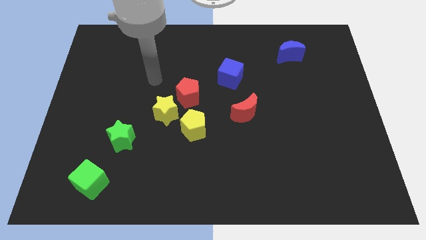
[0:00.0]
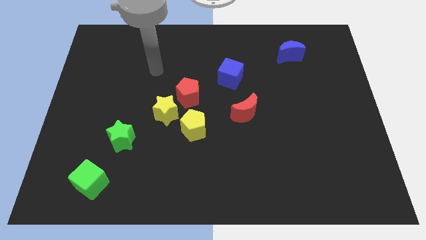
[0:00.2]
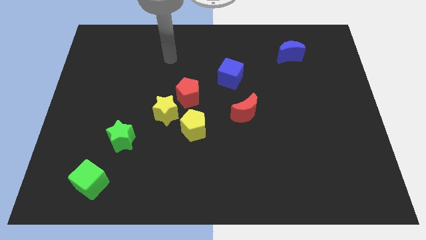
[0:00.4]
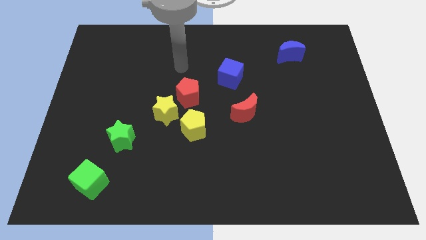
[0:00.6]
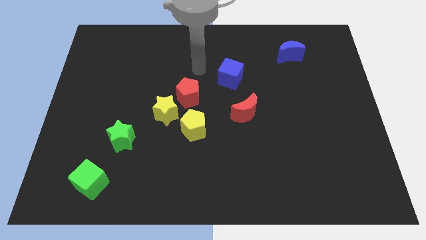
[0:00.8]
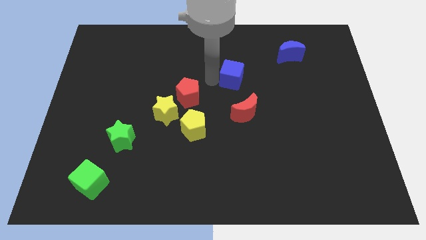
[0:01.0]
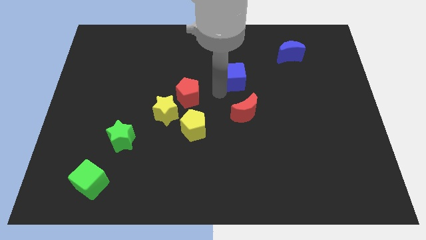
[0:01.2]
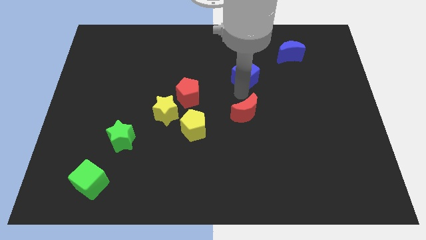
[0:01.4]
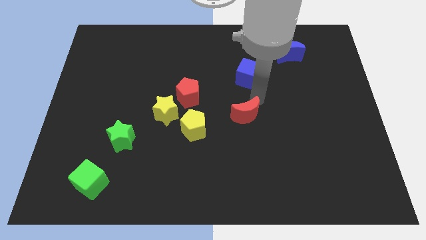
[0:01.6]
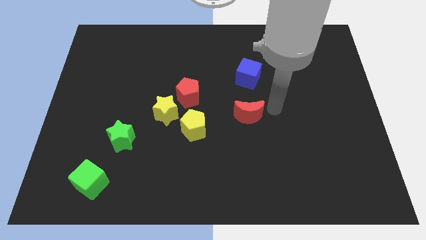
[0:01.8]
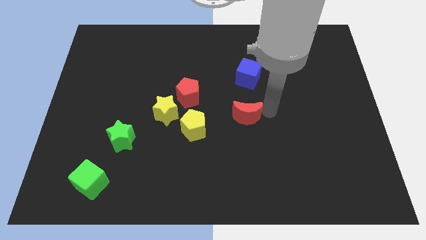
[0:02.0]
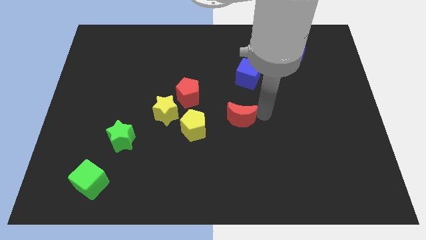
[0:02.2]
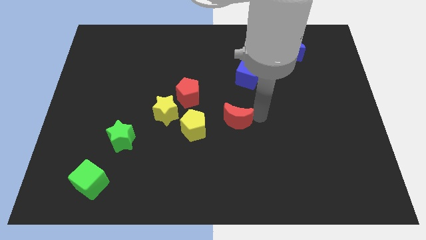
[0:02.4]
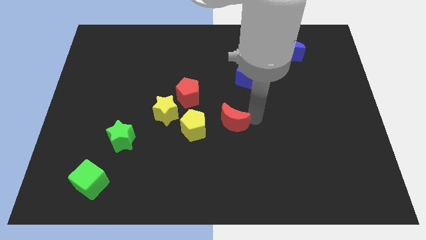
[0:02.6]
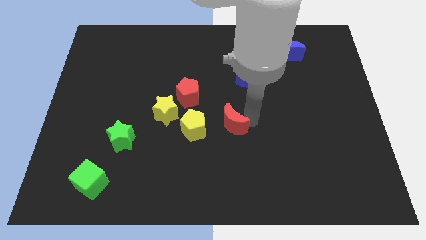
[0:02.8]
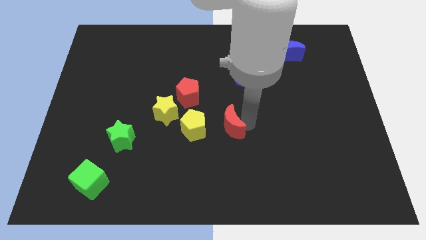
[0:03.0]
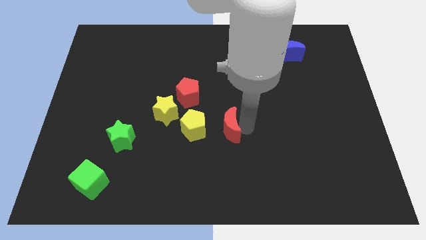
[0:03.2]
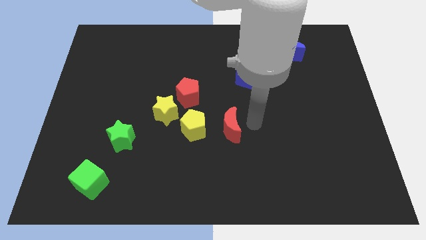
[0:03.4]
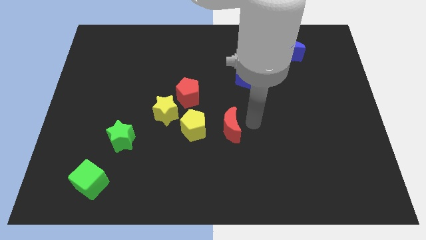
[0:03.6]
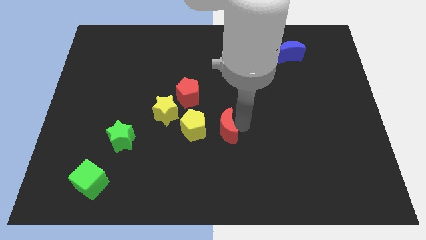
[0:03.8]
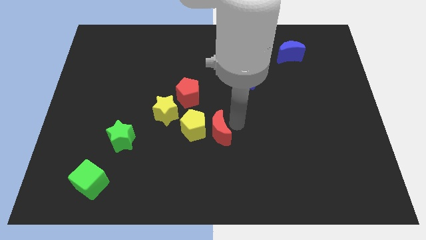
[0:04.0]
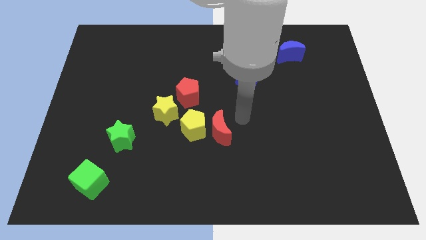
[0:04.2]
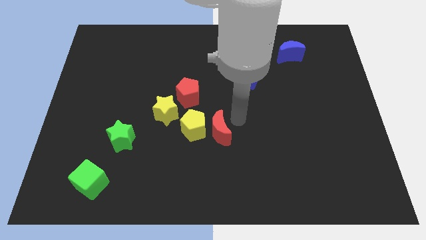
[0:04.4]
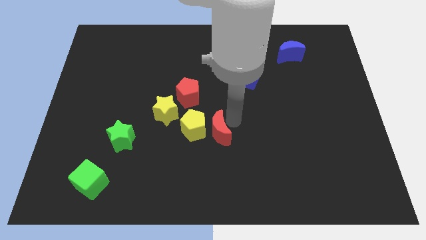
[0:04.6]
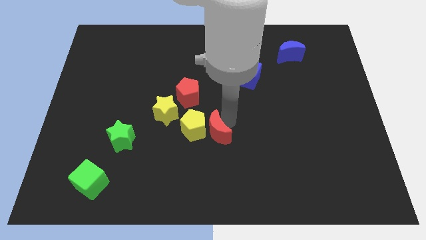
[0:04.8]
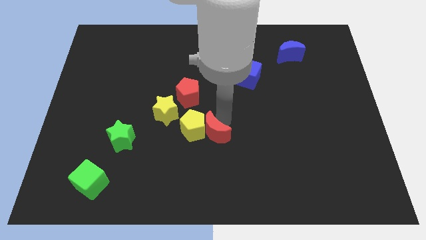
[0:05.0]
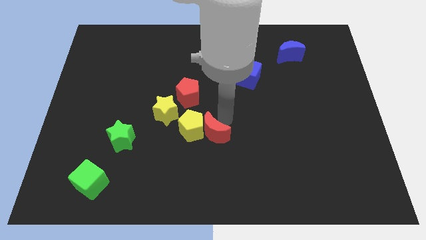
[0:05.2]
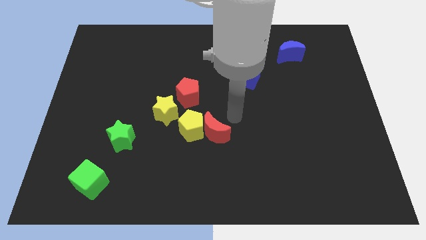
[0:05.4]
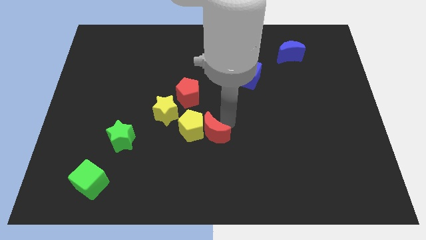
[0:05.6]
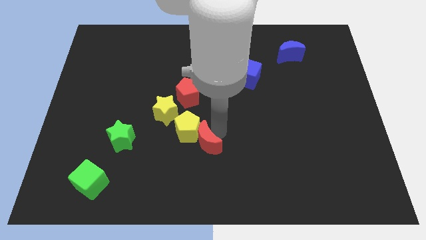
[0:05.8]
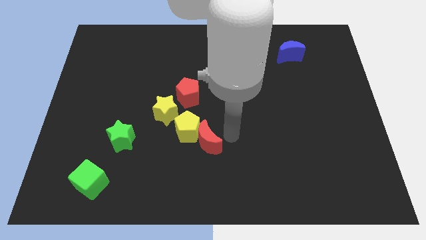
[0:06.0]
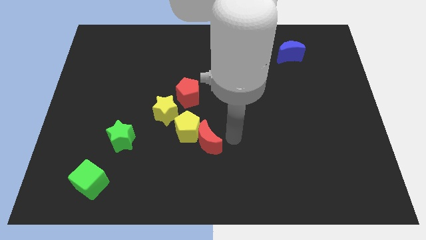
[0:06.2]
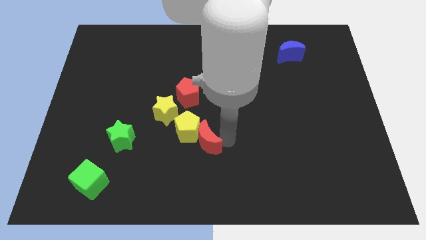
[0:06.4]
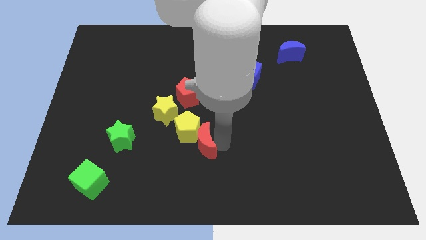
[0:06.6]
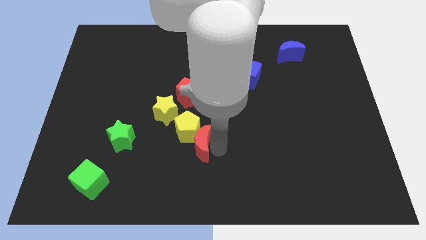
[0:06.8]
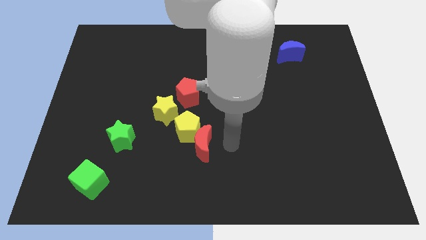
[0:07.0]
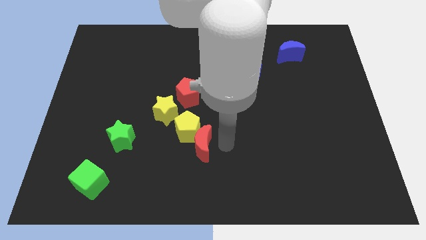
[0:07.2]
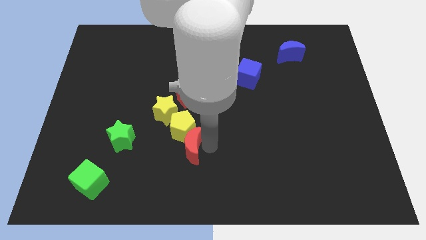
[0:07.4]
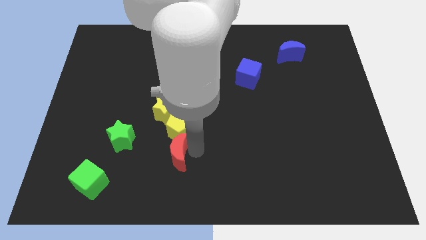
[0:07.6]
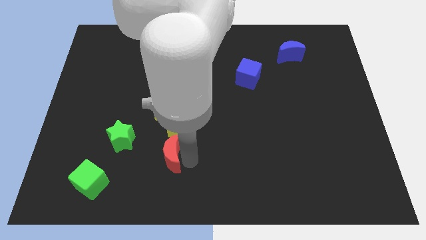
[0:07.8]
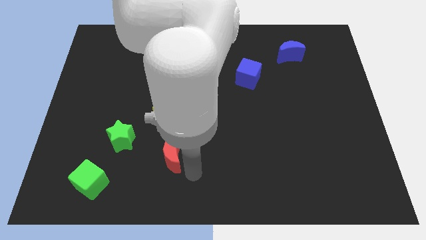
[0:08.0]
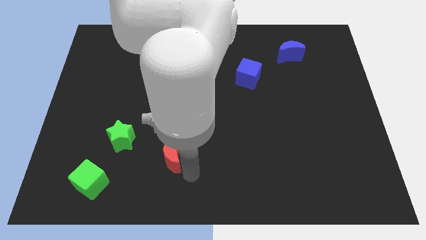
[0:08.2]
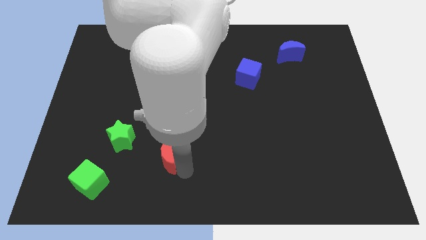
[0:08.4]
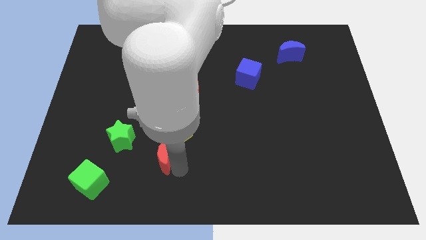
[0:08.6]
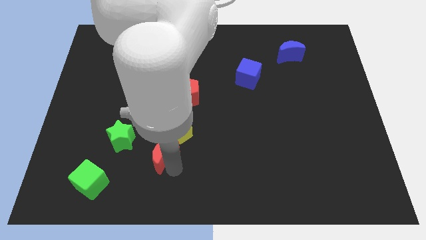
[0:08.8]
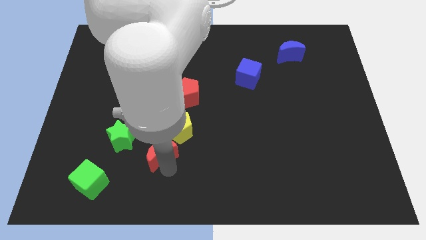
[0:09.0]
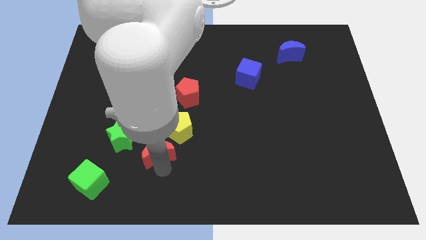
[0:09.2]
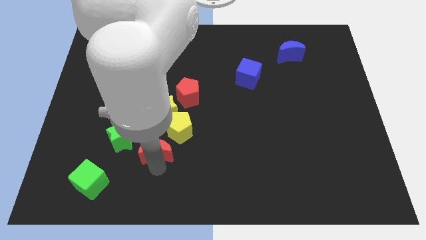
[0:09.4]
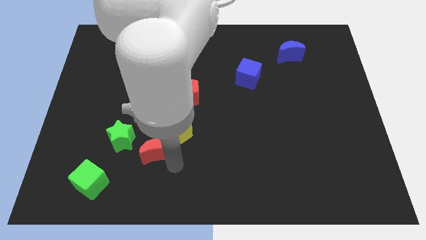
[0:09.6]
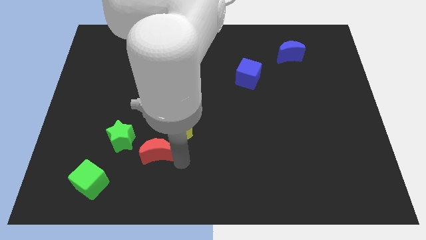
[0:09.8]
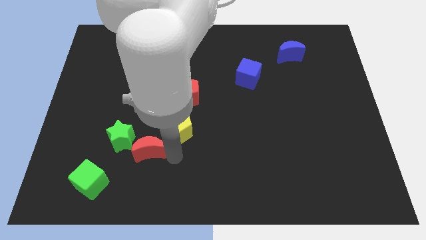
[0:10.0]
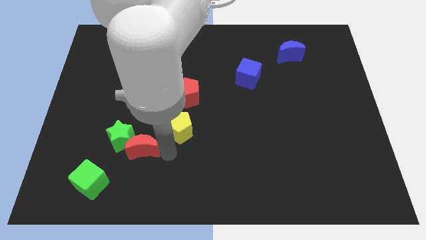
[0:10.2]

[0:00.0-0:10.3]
move the red moon towards the green star

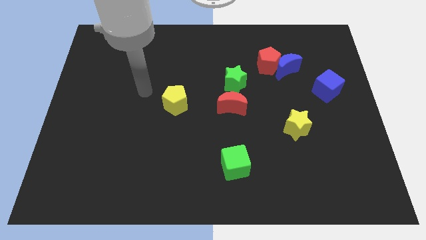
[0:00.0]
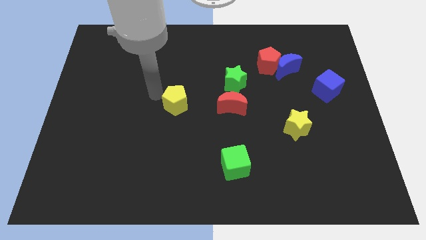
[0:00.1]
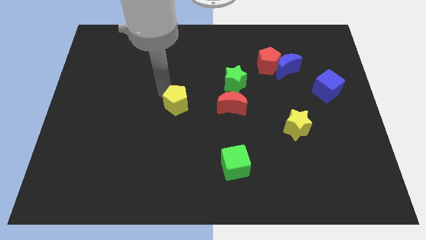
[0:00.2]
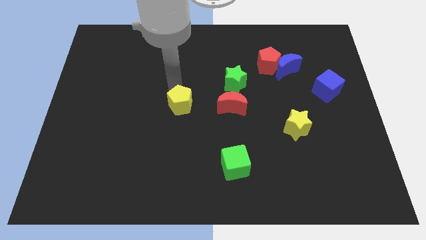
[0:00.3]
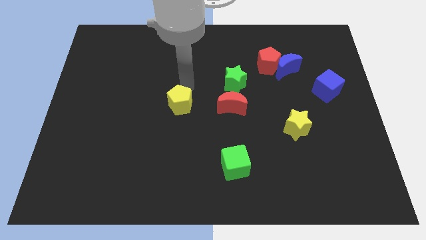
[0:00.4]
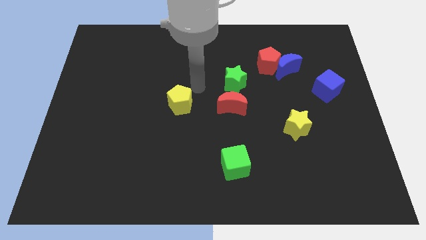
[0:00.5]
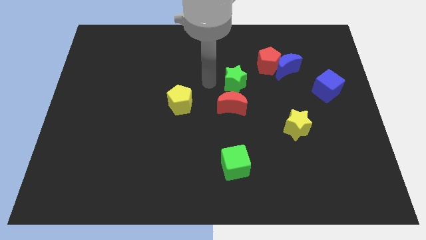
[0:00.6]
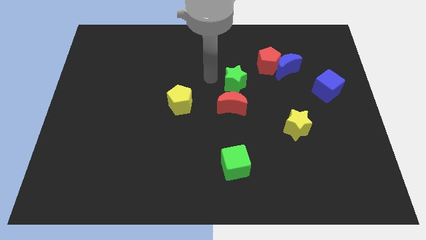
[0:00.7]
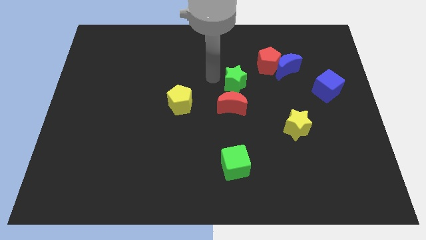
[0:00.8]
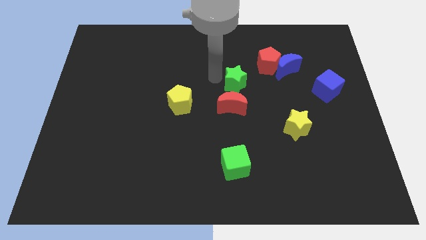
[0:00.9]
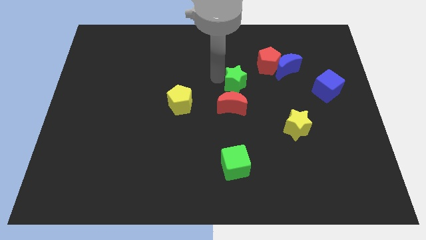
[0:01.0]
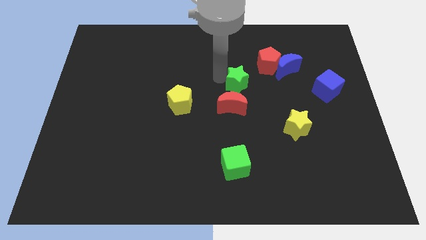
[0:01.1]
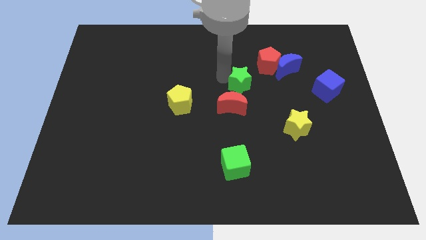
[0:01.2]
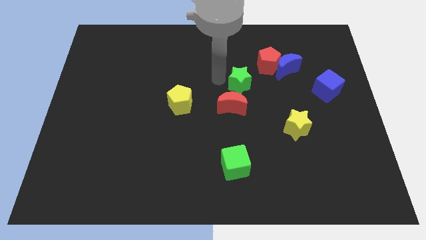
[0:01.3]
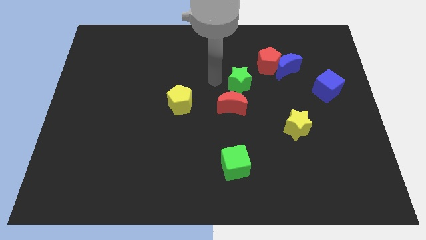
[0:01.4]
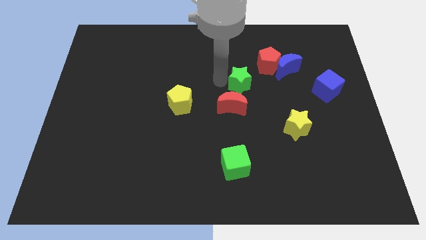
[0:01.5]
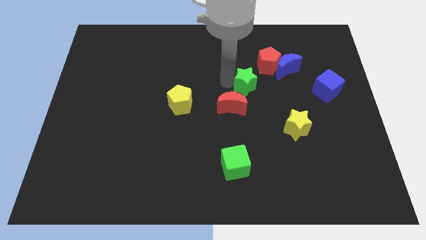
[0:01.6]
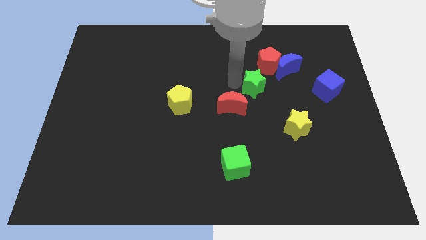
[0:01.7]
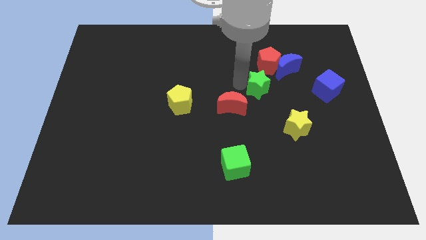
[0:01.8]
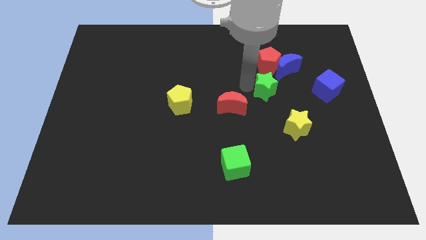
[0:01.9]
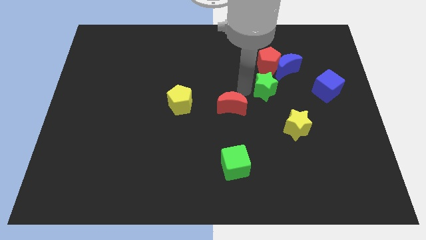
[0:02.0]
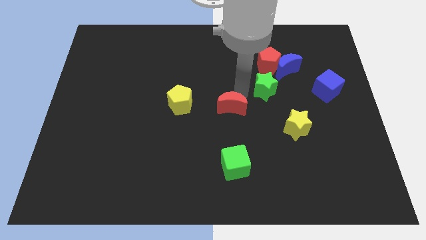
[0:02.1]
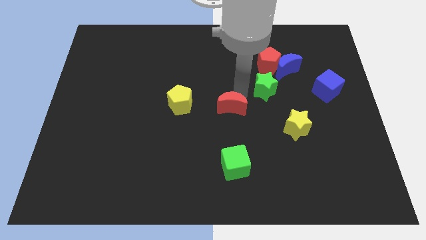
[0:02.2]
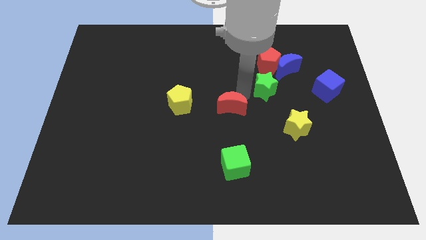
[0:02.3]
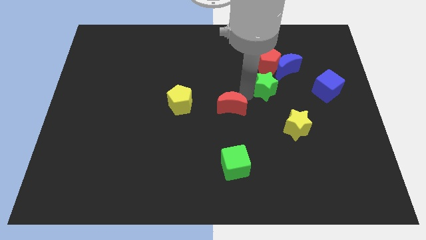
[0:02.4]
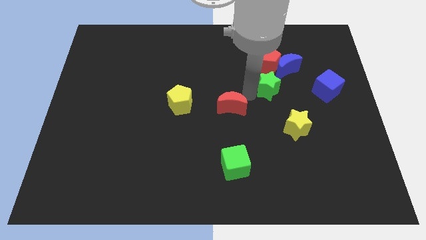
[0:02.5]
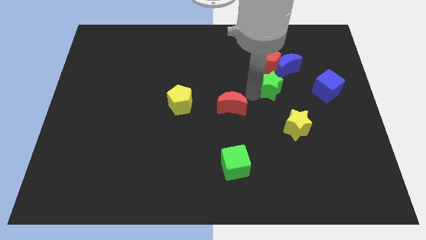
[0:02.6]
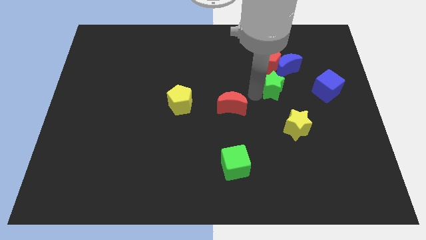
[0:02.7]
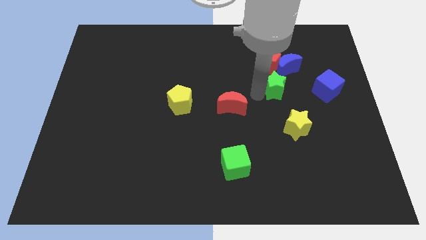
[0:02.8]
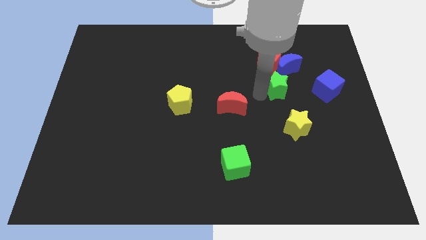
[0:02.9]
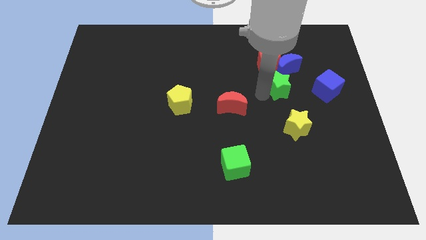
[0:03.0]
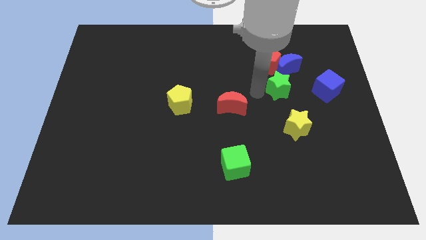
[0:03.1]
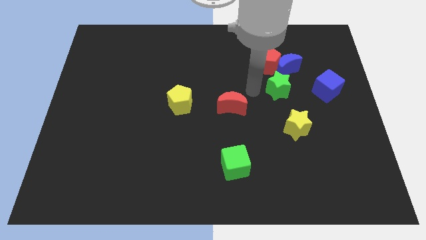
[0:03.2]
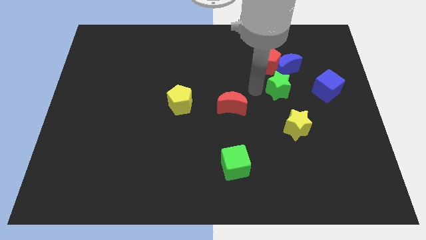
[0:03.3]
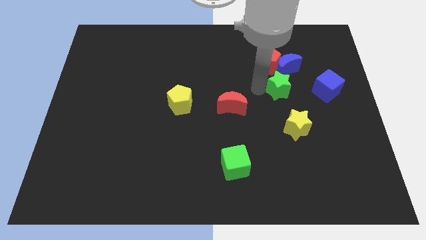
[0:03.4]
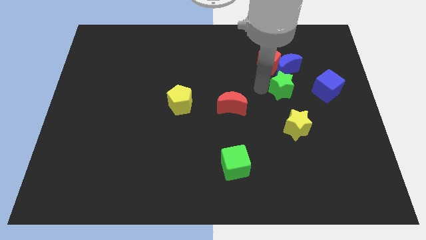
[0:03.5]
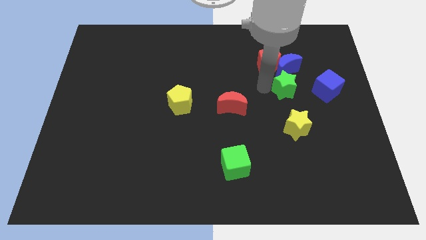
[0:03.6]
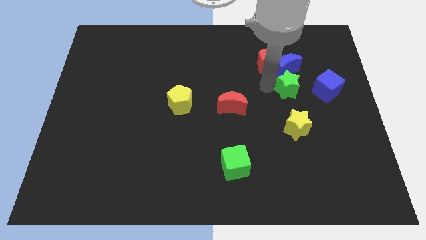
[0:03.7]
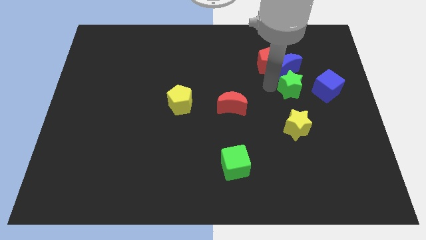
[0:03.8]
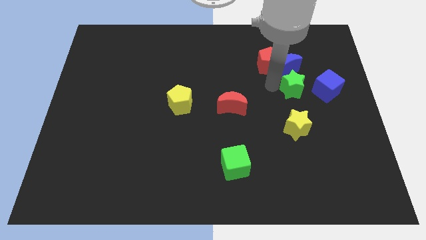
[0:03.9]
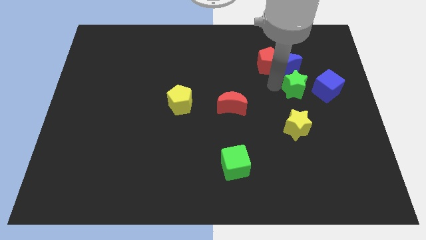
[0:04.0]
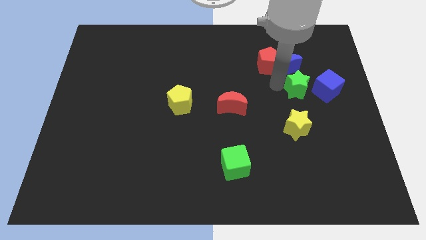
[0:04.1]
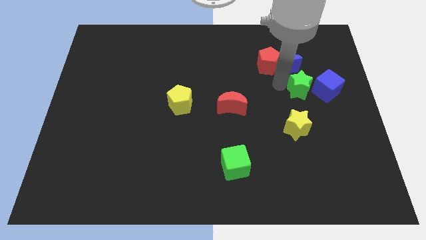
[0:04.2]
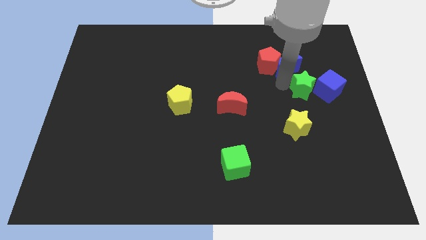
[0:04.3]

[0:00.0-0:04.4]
move the green star next to the blue cube
